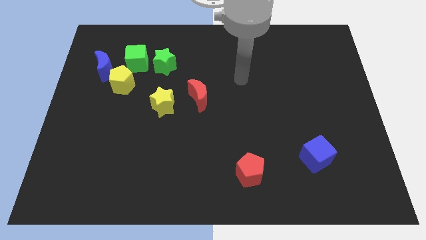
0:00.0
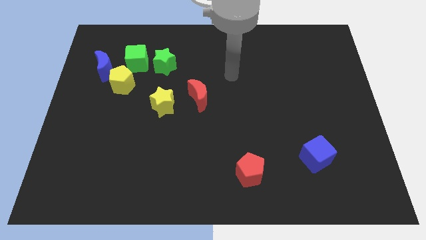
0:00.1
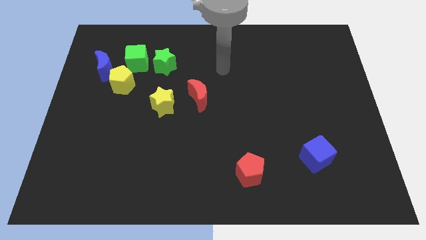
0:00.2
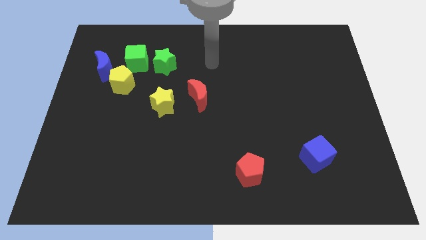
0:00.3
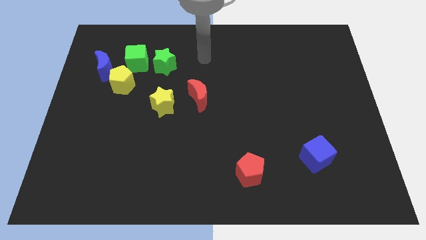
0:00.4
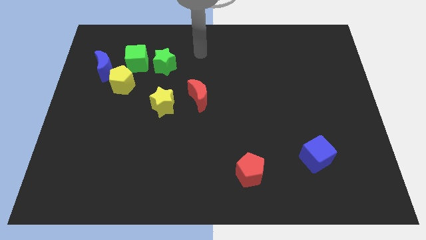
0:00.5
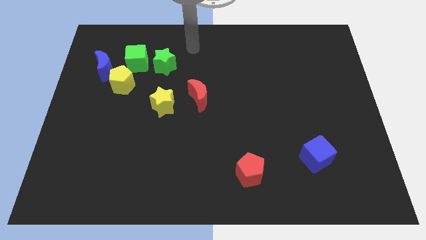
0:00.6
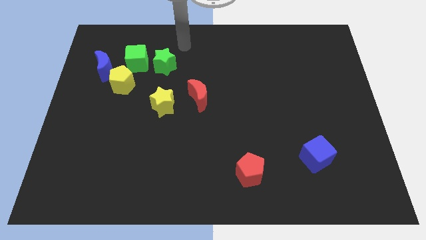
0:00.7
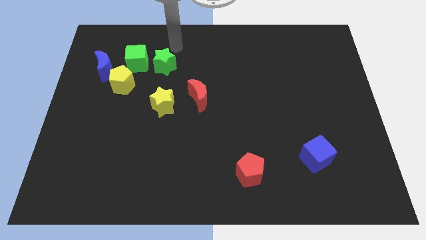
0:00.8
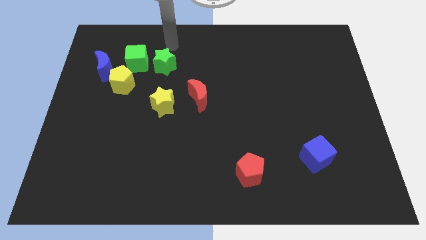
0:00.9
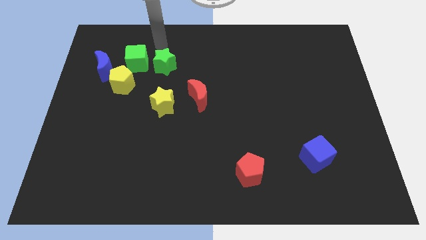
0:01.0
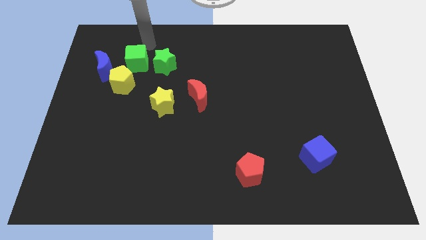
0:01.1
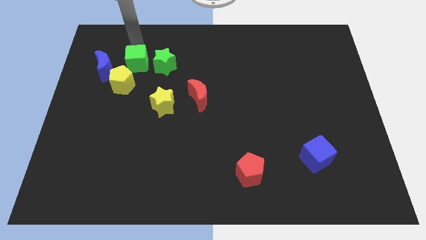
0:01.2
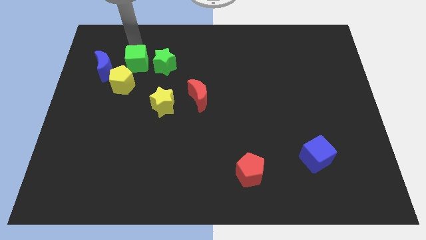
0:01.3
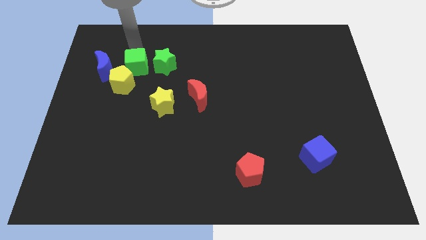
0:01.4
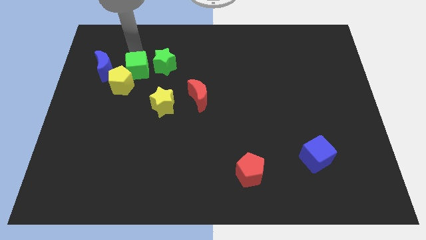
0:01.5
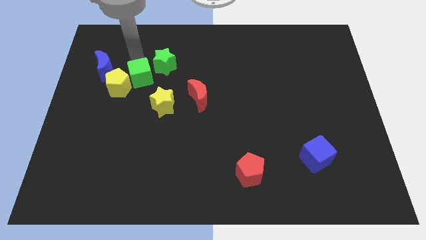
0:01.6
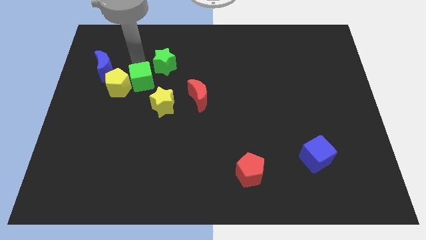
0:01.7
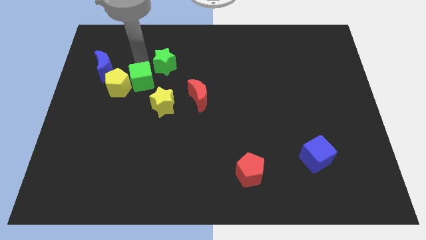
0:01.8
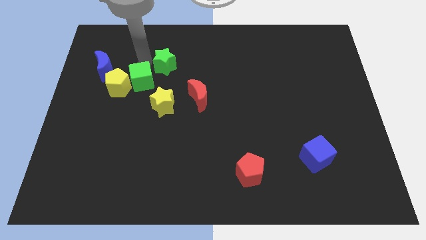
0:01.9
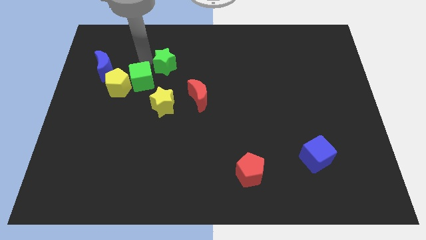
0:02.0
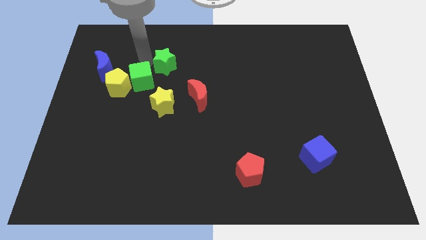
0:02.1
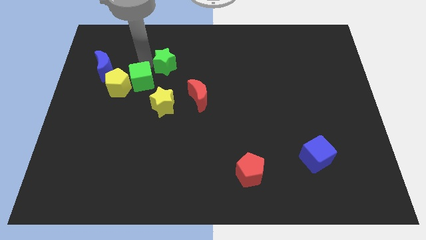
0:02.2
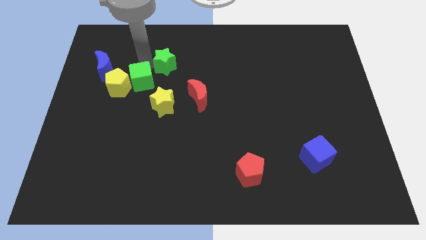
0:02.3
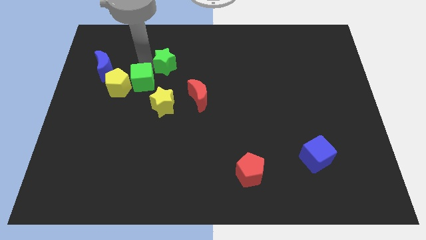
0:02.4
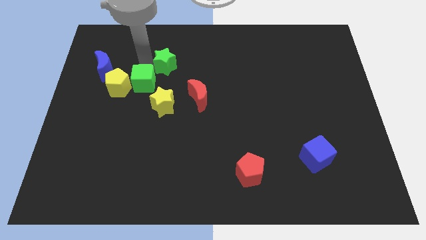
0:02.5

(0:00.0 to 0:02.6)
slightly slide the green cube downwards

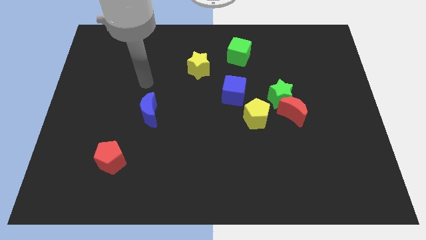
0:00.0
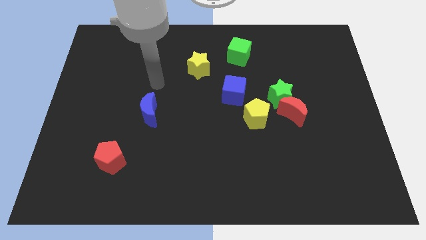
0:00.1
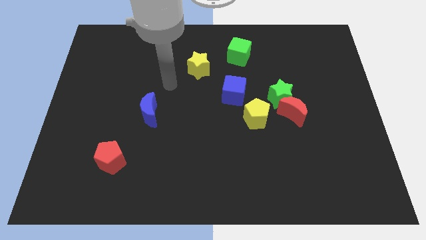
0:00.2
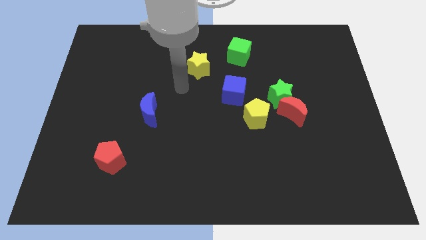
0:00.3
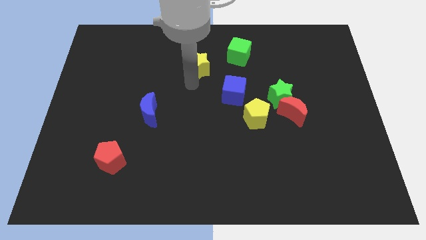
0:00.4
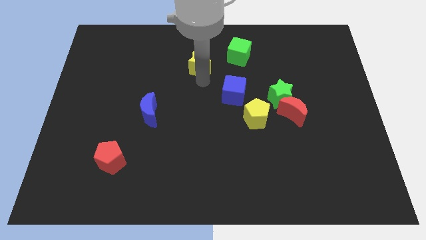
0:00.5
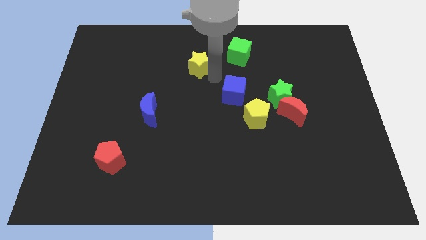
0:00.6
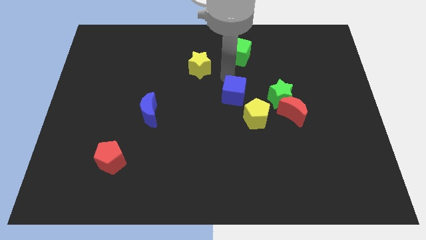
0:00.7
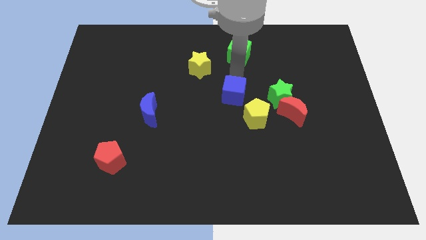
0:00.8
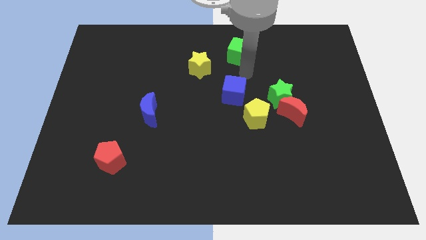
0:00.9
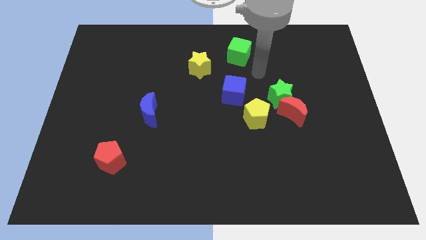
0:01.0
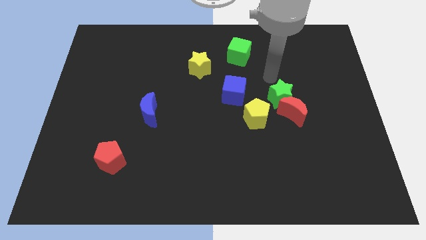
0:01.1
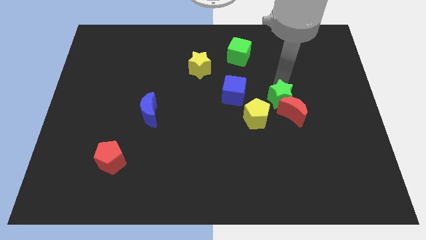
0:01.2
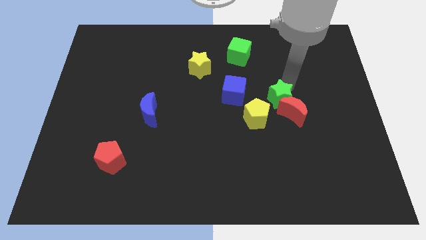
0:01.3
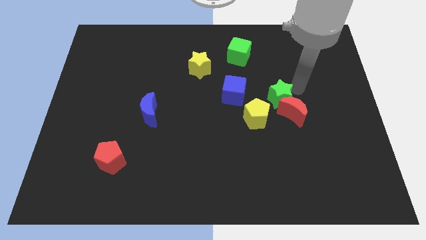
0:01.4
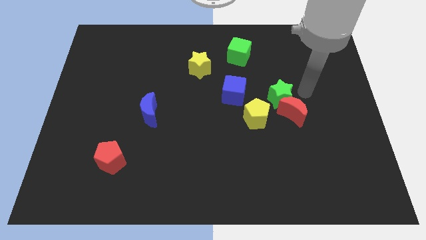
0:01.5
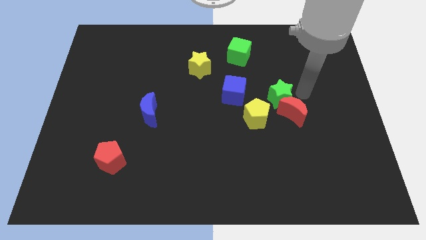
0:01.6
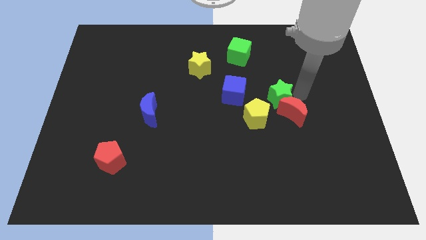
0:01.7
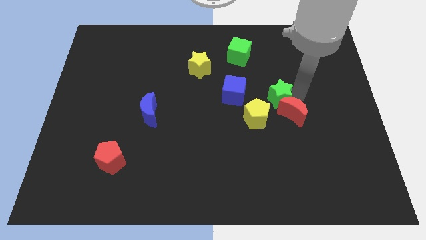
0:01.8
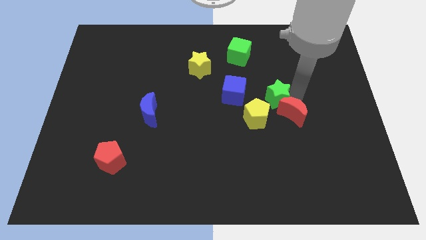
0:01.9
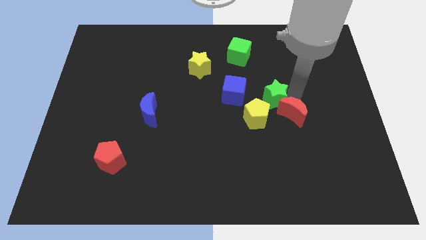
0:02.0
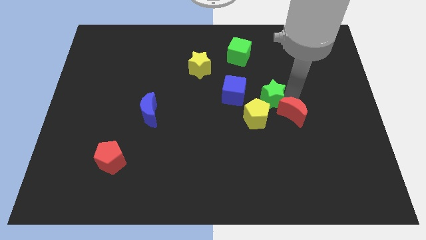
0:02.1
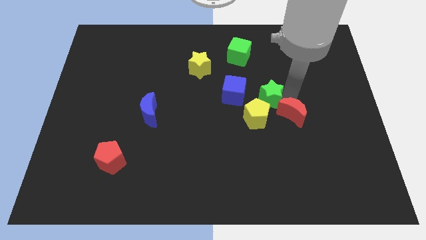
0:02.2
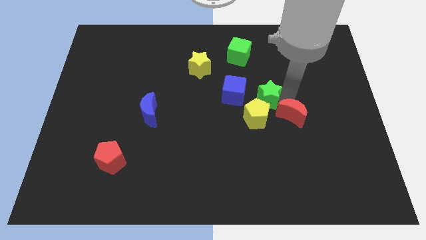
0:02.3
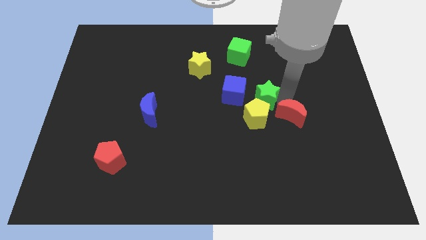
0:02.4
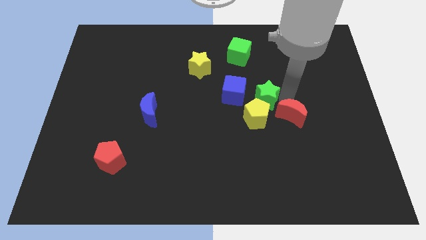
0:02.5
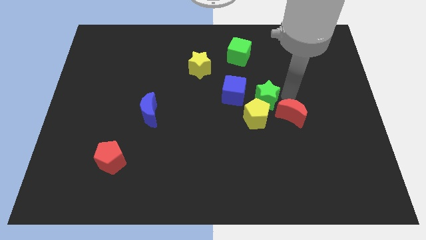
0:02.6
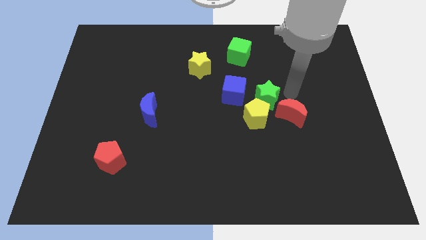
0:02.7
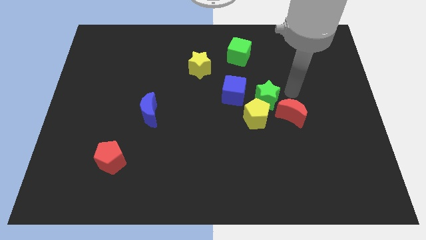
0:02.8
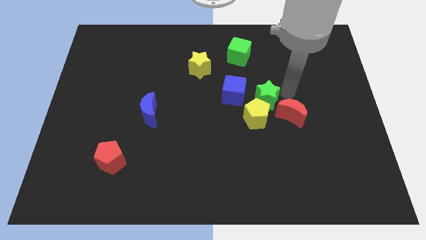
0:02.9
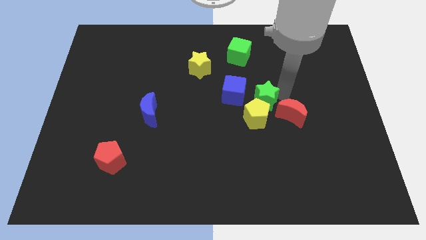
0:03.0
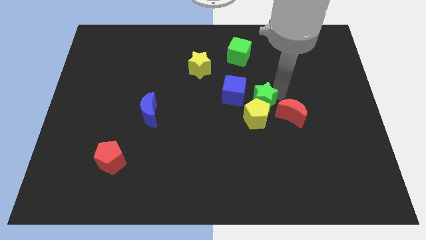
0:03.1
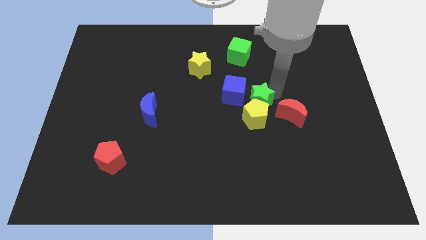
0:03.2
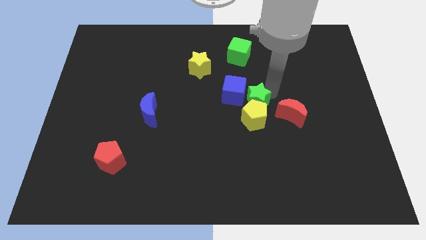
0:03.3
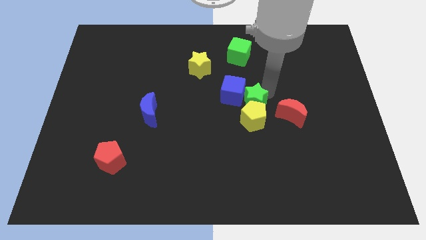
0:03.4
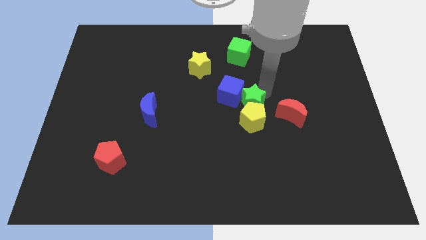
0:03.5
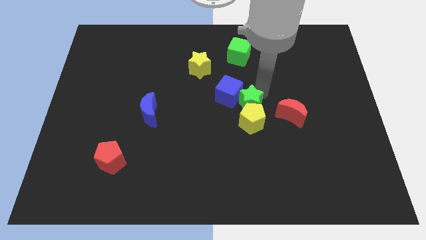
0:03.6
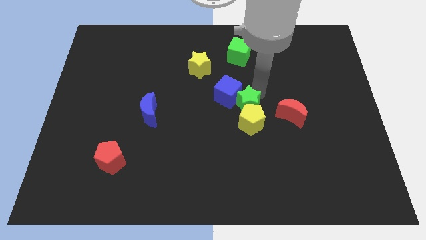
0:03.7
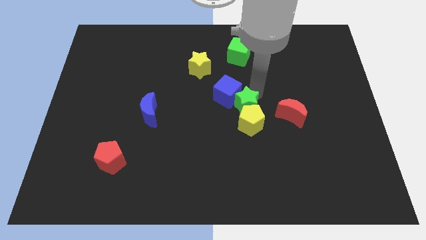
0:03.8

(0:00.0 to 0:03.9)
move the green star a bit down and then left

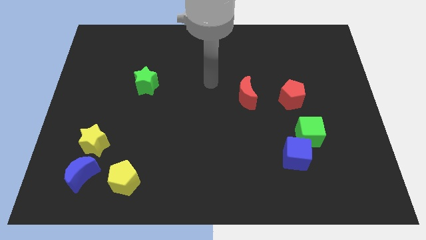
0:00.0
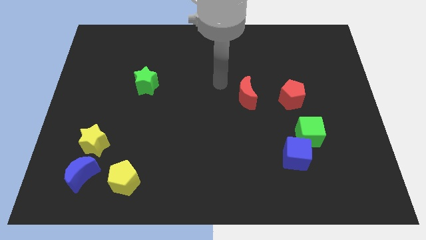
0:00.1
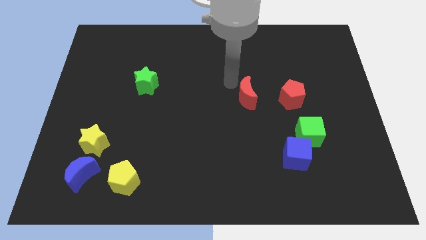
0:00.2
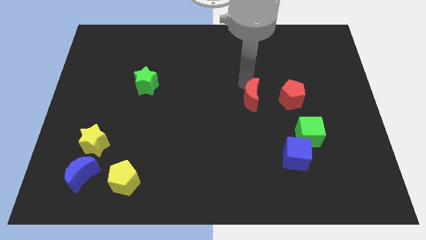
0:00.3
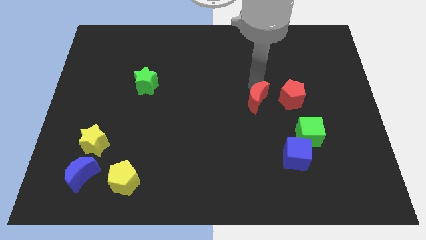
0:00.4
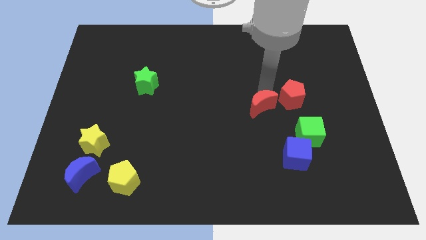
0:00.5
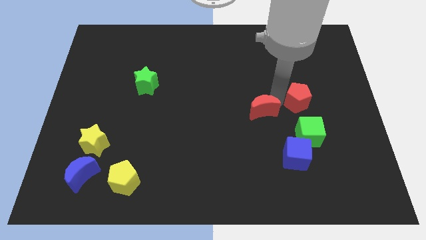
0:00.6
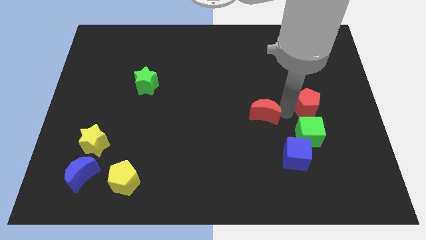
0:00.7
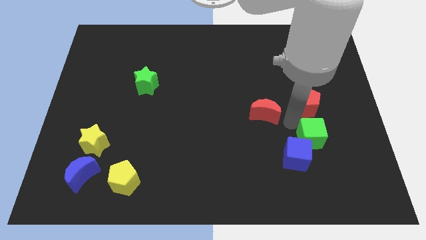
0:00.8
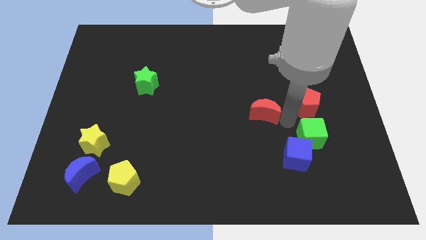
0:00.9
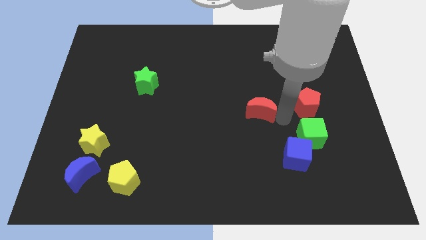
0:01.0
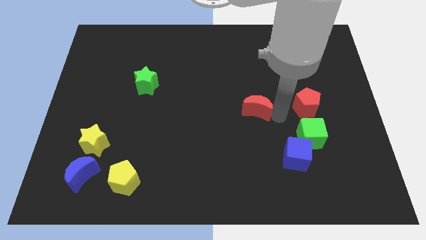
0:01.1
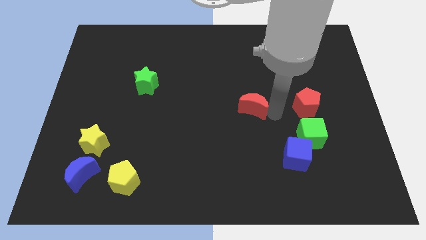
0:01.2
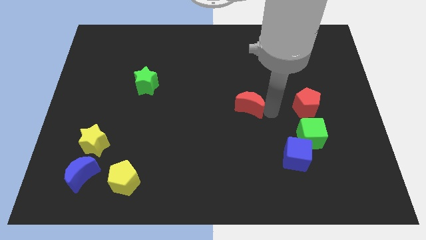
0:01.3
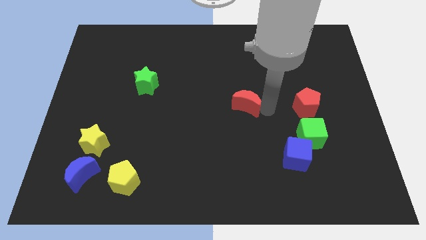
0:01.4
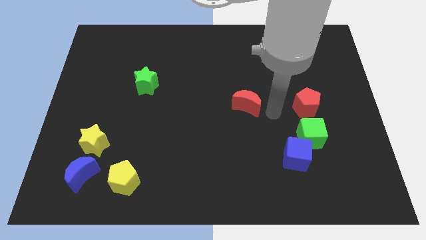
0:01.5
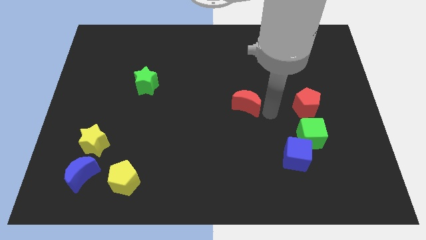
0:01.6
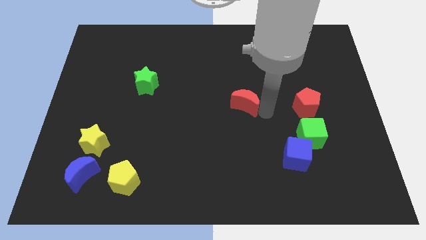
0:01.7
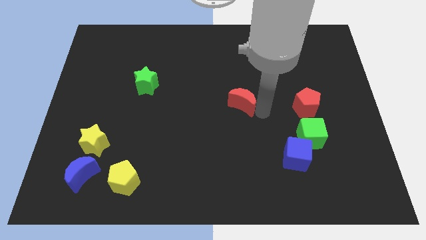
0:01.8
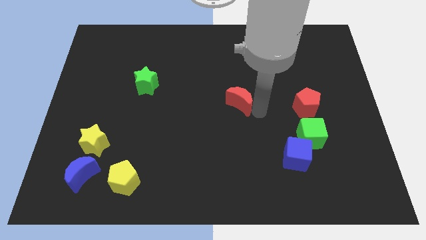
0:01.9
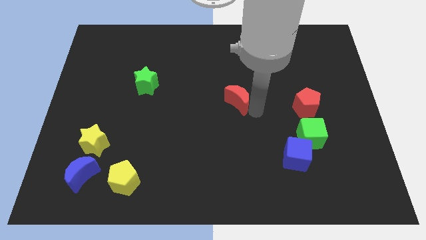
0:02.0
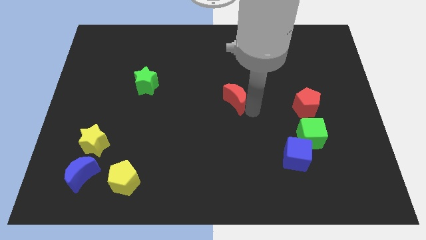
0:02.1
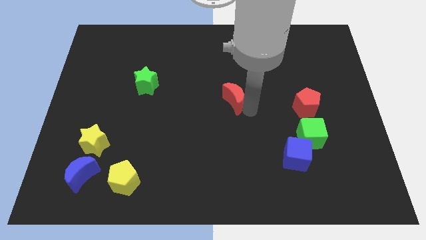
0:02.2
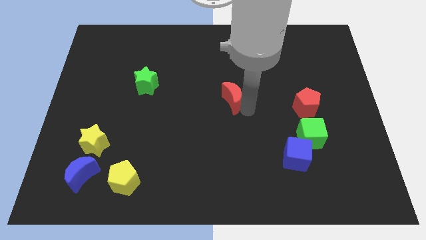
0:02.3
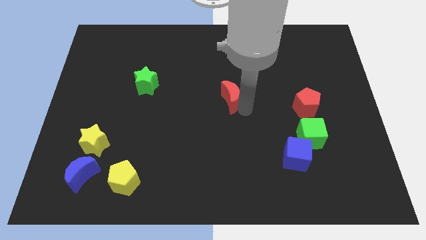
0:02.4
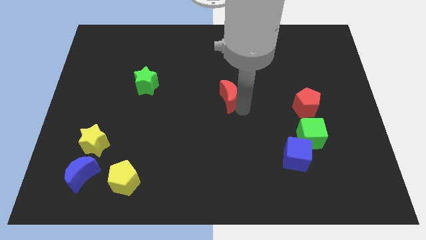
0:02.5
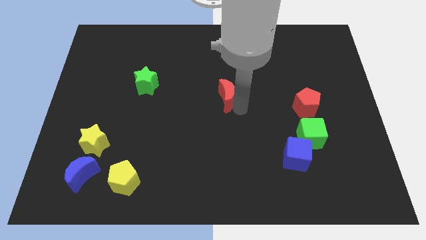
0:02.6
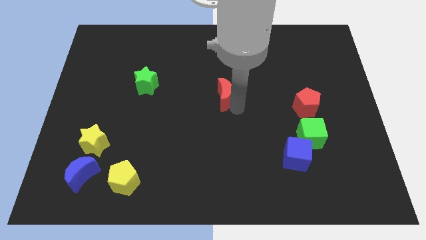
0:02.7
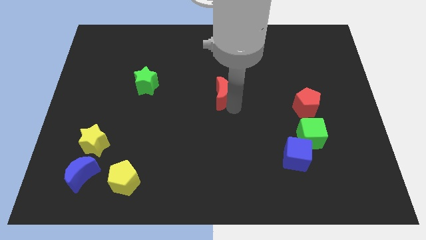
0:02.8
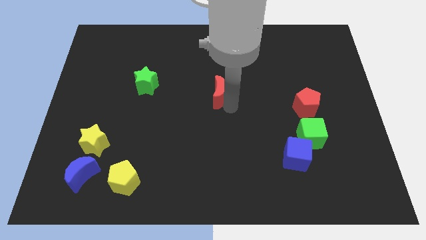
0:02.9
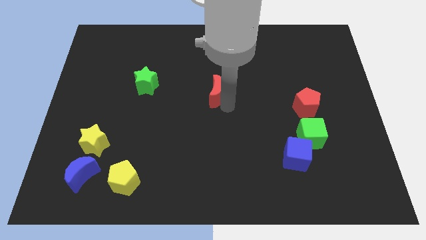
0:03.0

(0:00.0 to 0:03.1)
slide the red moon left slightly
